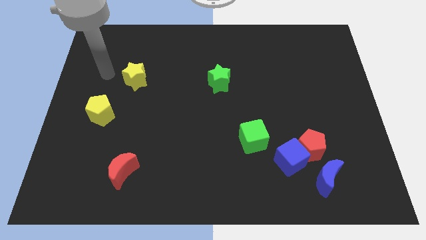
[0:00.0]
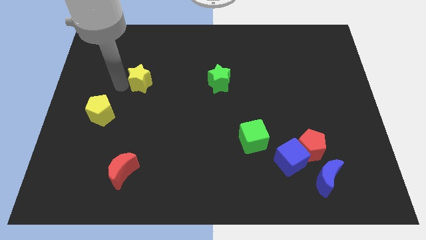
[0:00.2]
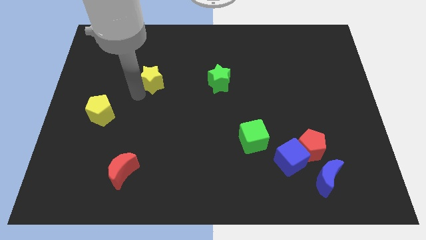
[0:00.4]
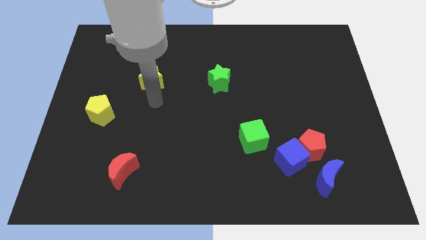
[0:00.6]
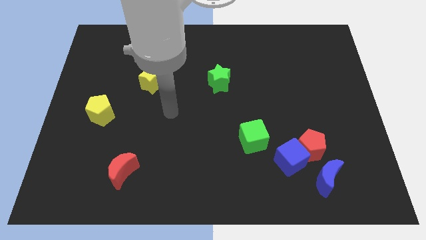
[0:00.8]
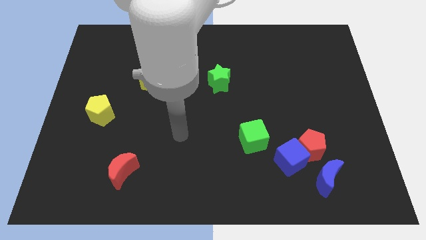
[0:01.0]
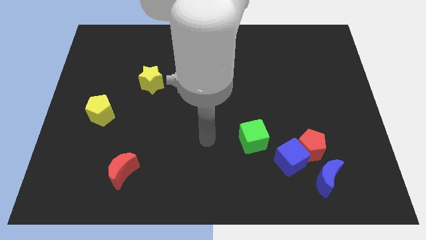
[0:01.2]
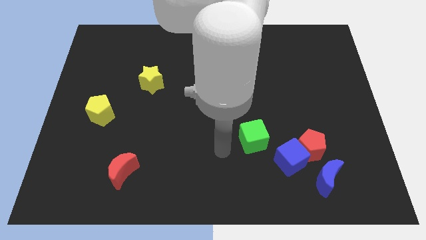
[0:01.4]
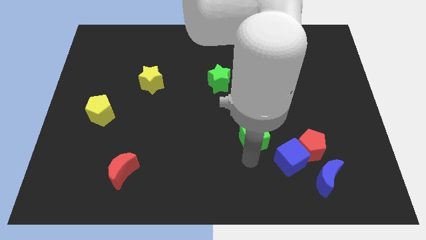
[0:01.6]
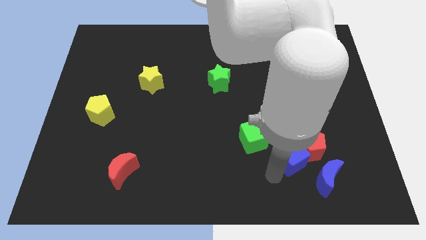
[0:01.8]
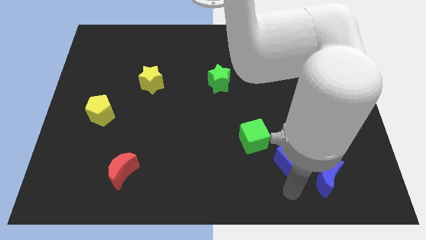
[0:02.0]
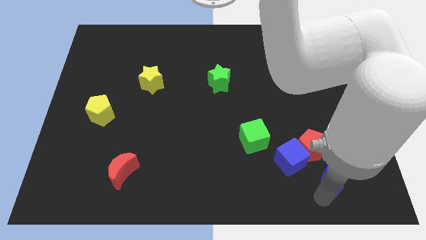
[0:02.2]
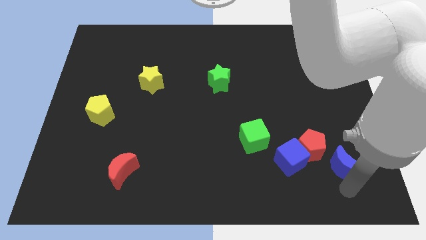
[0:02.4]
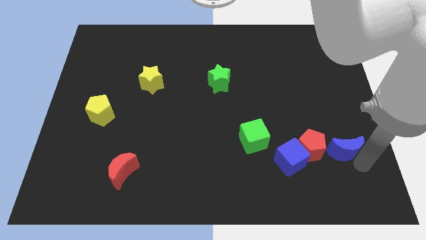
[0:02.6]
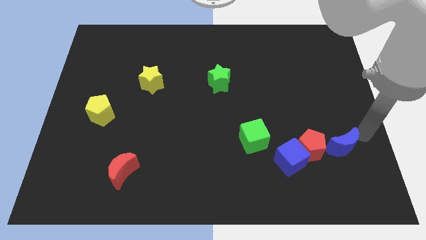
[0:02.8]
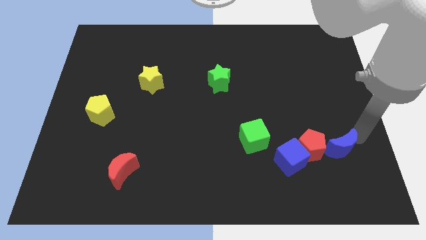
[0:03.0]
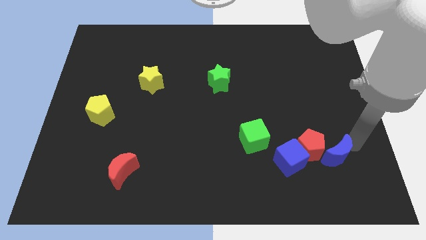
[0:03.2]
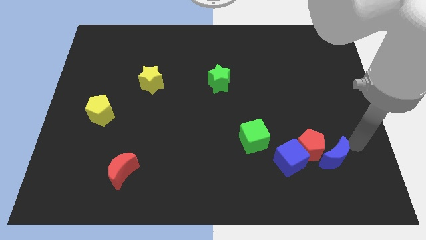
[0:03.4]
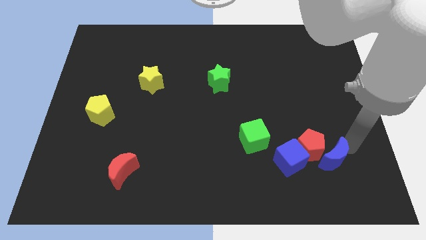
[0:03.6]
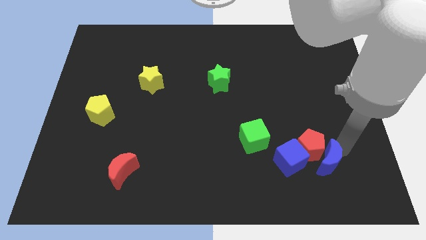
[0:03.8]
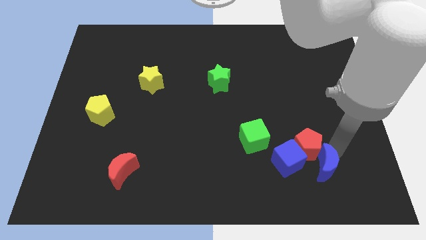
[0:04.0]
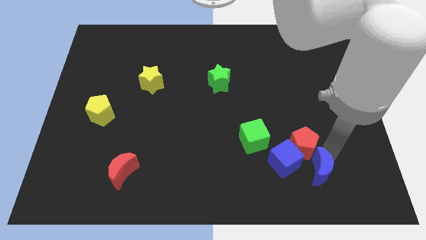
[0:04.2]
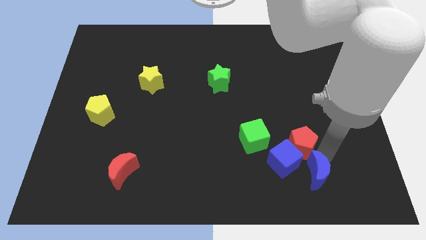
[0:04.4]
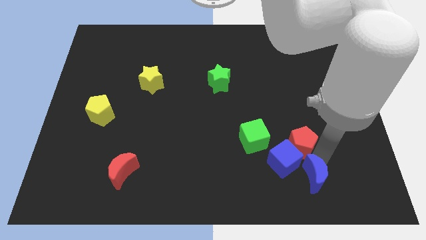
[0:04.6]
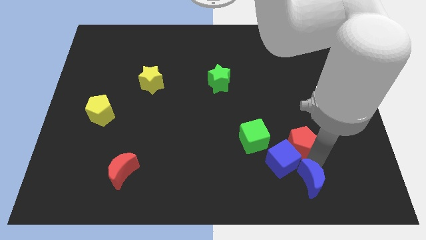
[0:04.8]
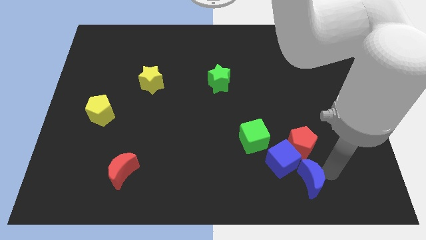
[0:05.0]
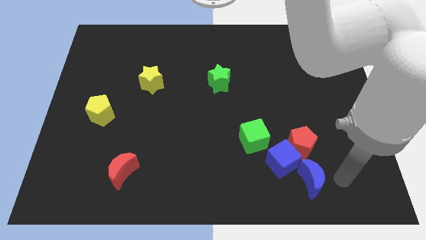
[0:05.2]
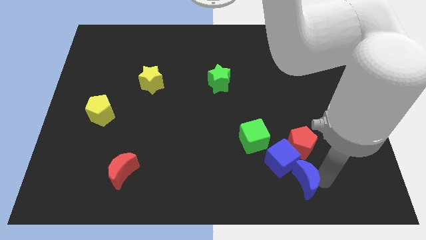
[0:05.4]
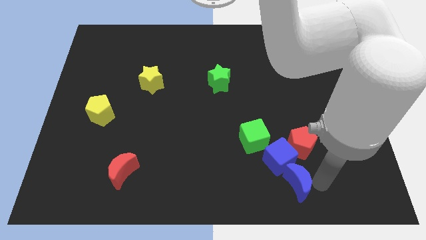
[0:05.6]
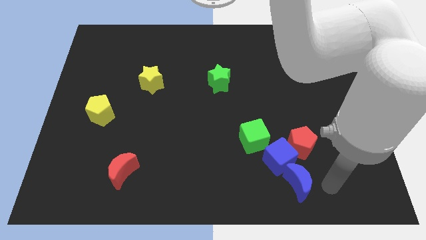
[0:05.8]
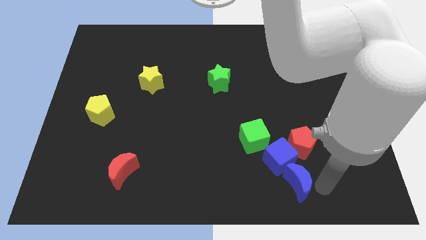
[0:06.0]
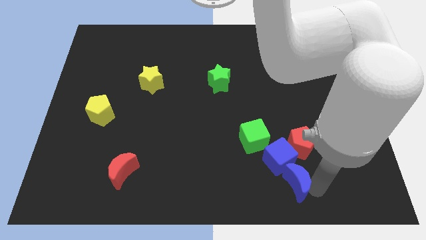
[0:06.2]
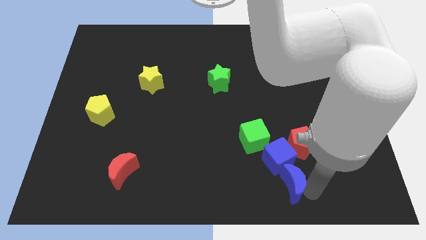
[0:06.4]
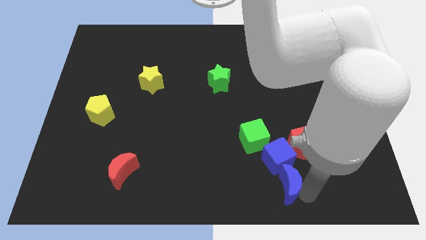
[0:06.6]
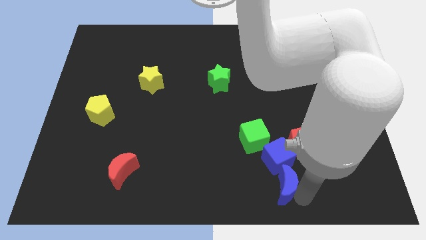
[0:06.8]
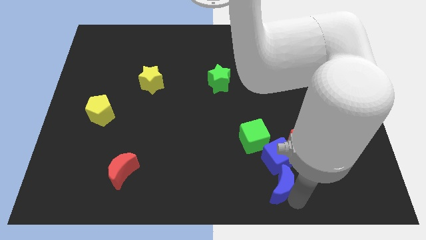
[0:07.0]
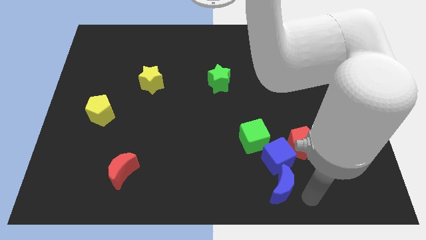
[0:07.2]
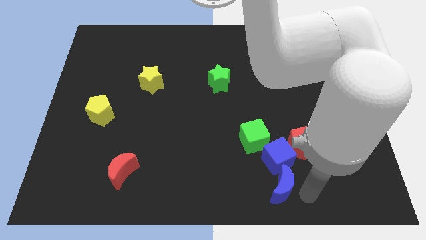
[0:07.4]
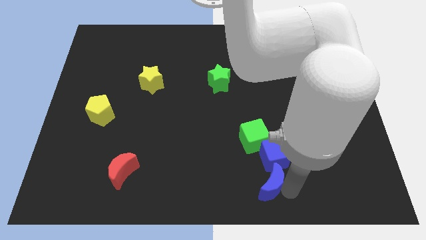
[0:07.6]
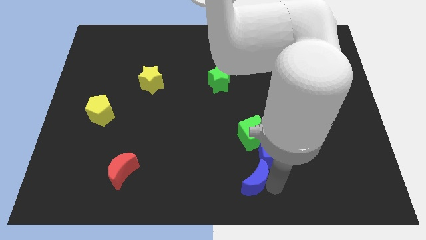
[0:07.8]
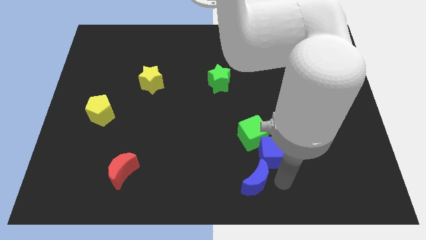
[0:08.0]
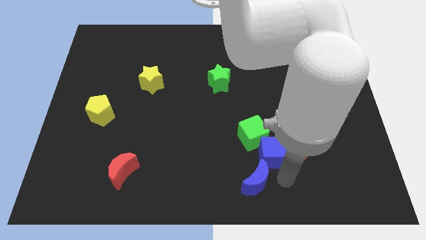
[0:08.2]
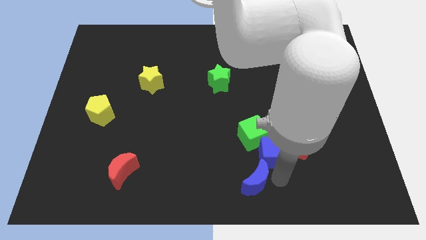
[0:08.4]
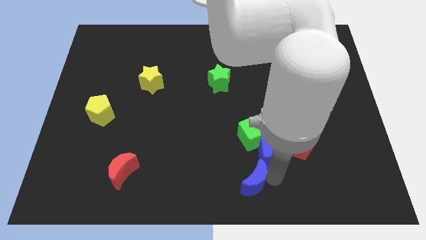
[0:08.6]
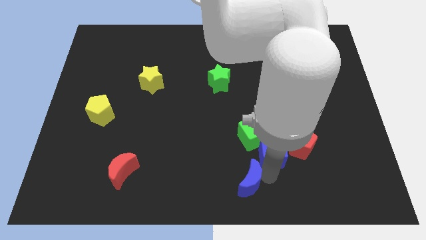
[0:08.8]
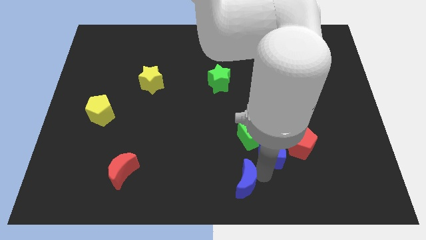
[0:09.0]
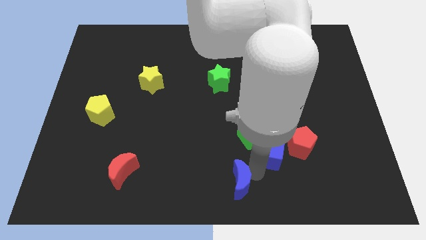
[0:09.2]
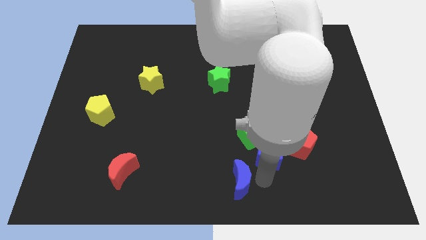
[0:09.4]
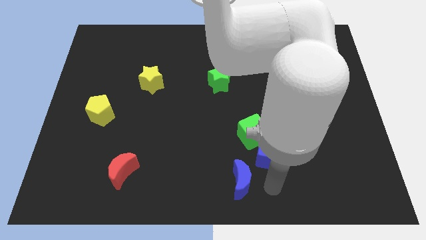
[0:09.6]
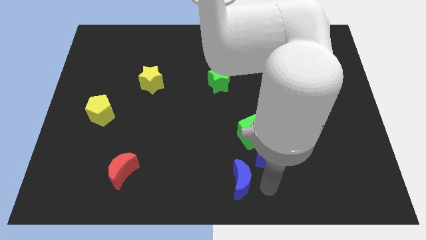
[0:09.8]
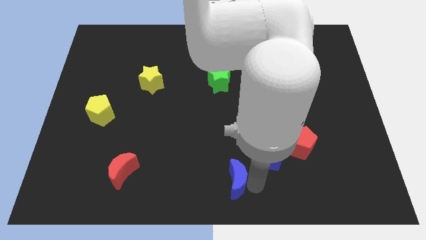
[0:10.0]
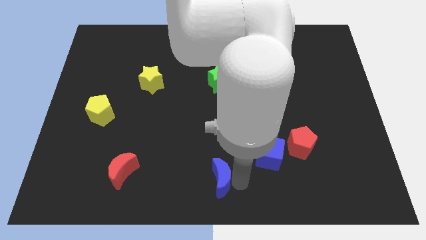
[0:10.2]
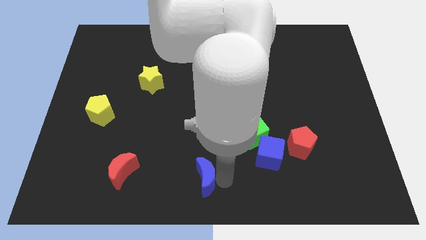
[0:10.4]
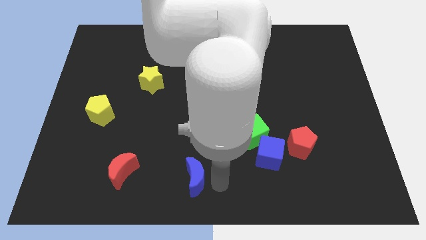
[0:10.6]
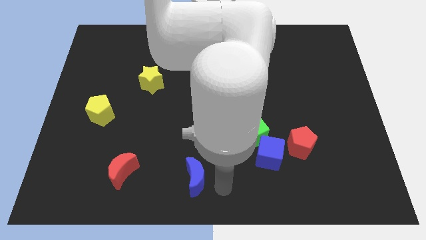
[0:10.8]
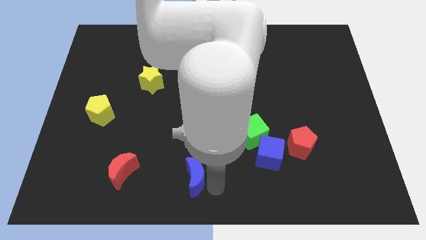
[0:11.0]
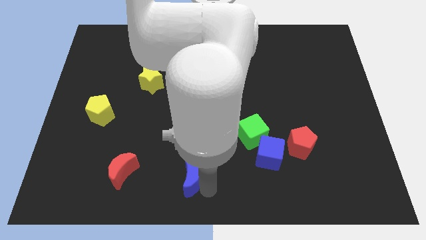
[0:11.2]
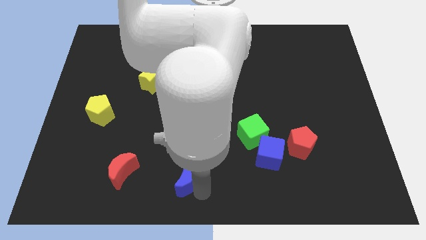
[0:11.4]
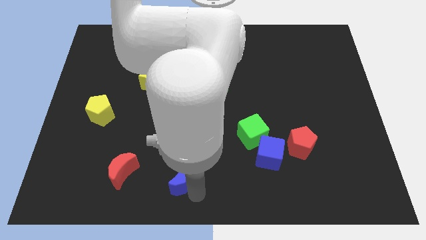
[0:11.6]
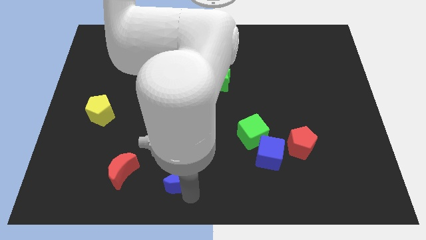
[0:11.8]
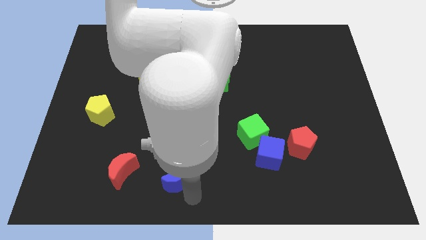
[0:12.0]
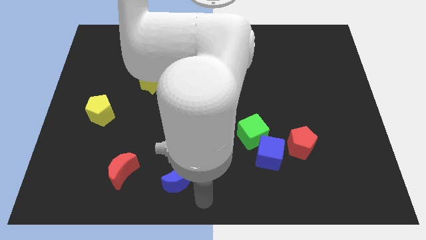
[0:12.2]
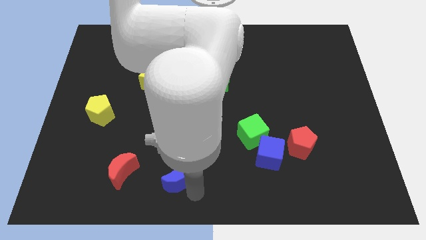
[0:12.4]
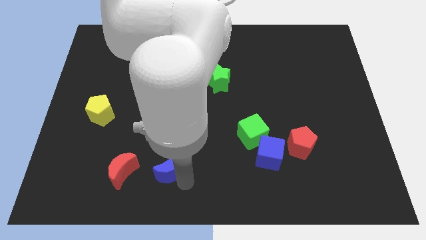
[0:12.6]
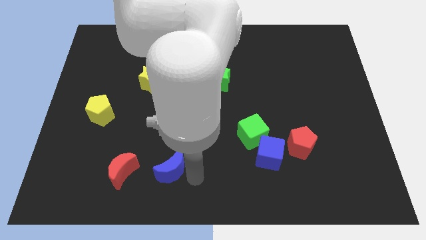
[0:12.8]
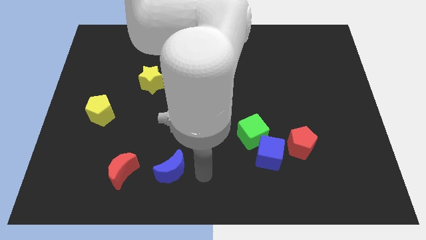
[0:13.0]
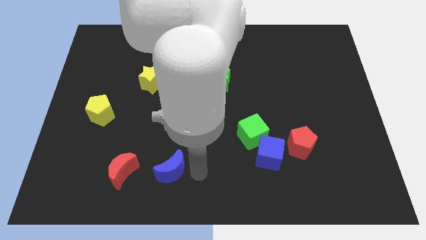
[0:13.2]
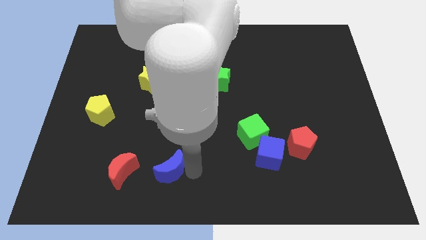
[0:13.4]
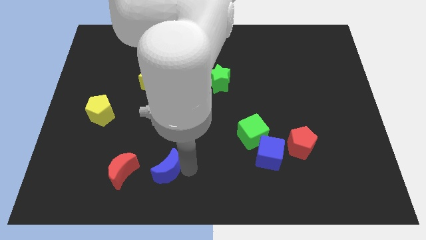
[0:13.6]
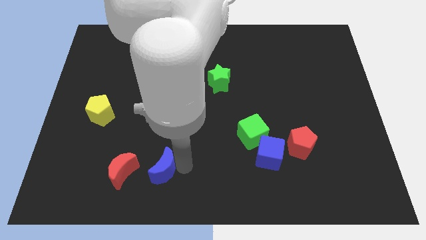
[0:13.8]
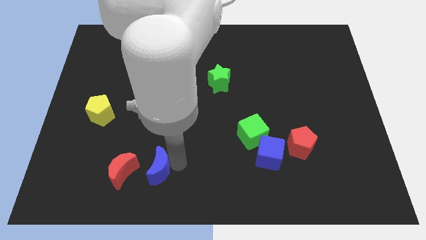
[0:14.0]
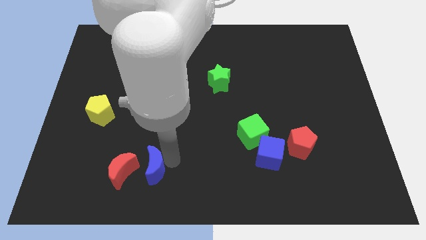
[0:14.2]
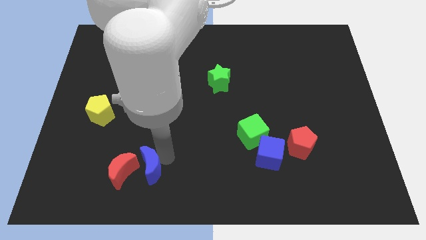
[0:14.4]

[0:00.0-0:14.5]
put the blue moon to the red moon
